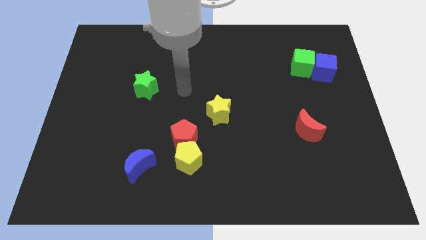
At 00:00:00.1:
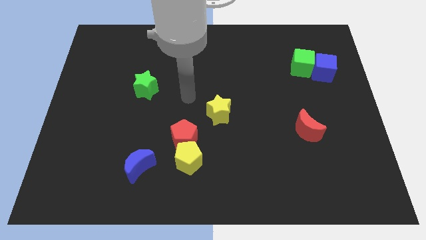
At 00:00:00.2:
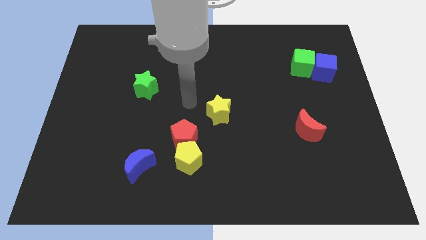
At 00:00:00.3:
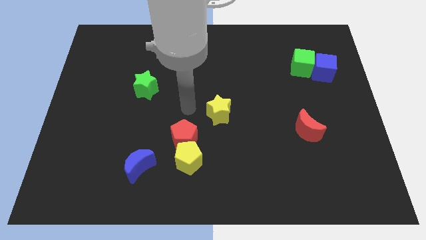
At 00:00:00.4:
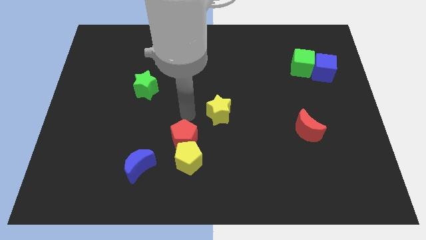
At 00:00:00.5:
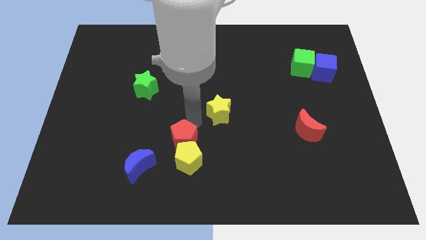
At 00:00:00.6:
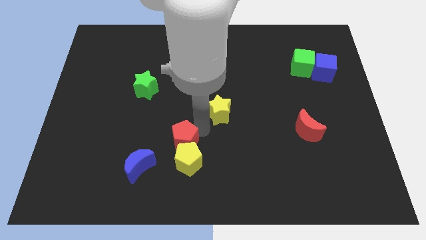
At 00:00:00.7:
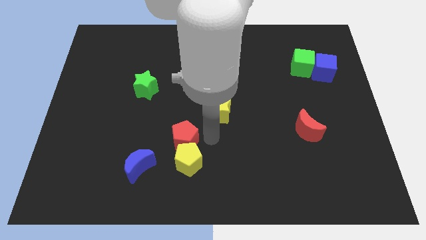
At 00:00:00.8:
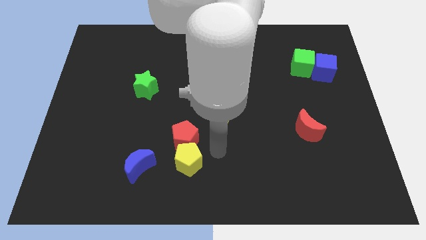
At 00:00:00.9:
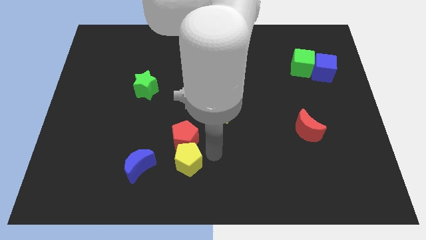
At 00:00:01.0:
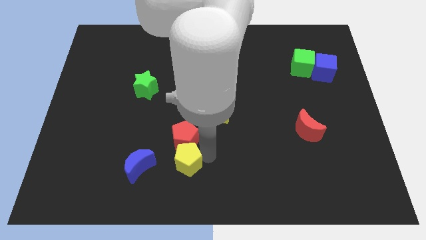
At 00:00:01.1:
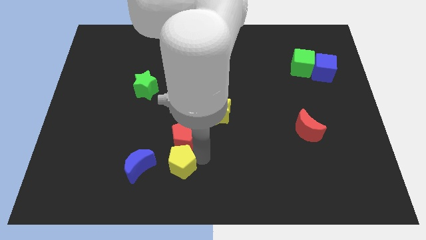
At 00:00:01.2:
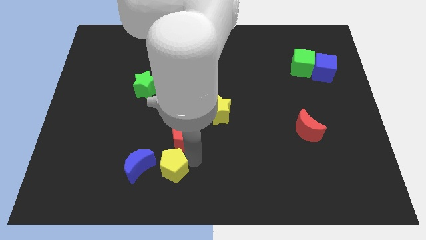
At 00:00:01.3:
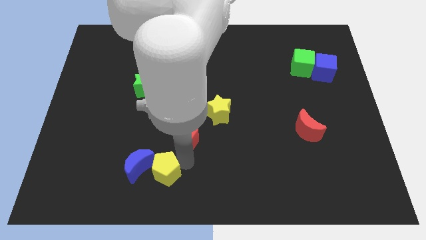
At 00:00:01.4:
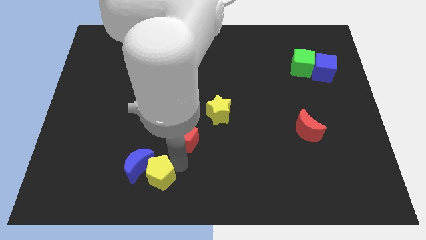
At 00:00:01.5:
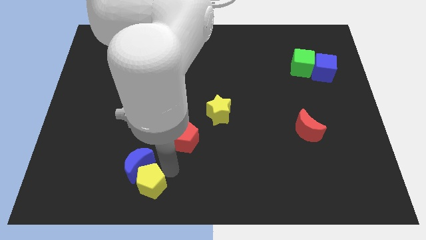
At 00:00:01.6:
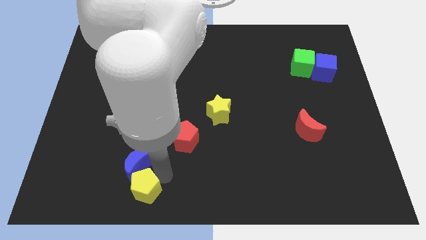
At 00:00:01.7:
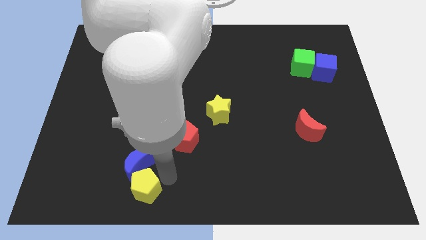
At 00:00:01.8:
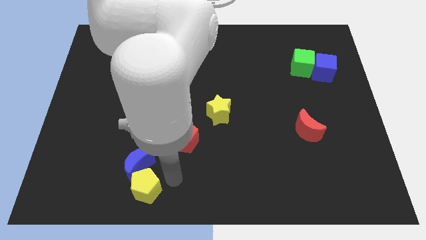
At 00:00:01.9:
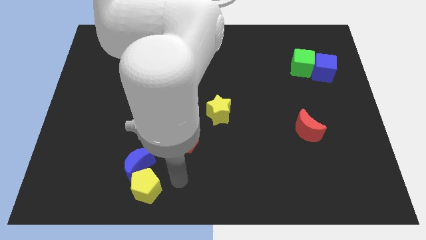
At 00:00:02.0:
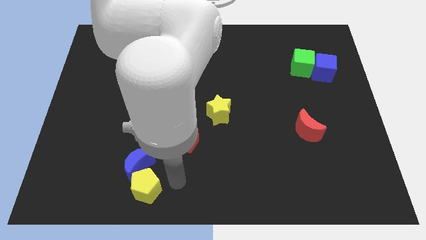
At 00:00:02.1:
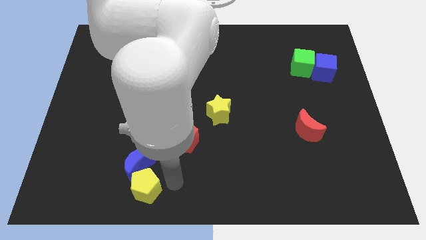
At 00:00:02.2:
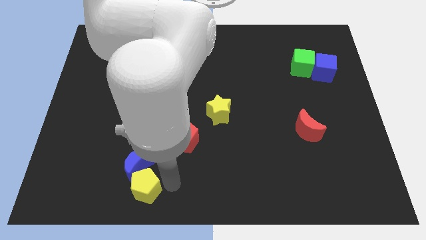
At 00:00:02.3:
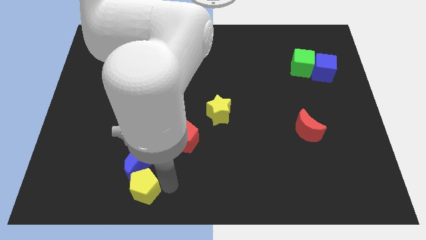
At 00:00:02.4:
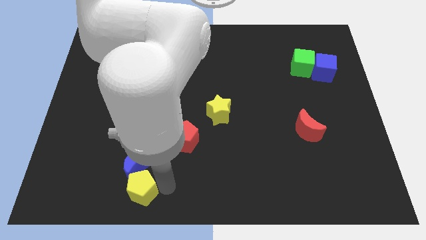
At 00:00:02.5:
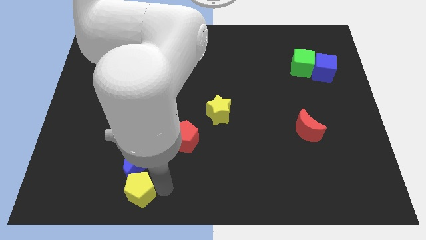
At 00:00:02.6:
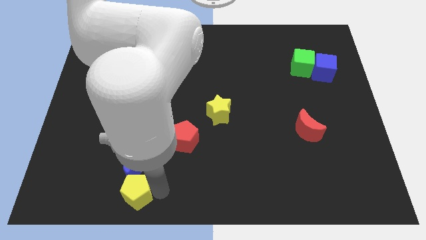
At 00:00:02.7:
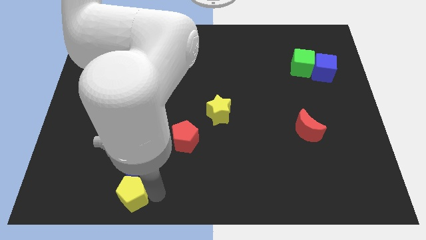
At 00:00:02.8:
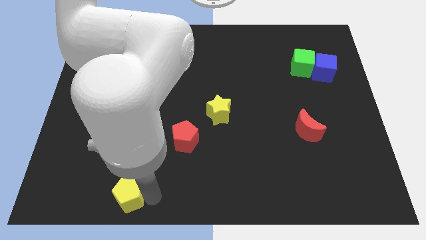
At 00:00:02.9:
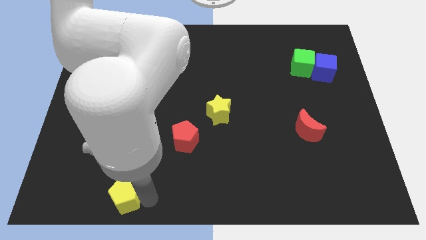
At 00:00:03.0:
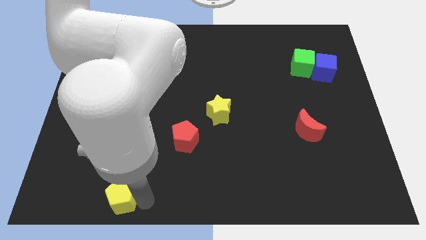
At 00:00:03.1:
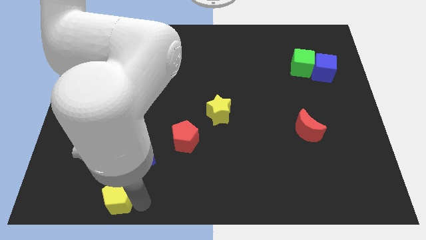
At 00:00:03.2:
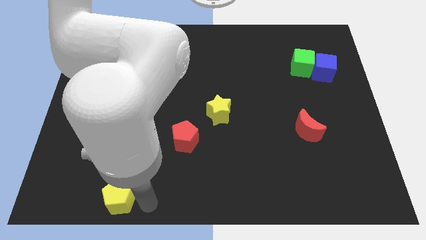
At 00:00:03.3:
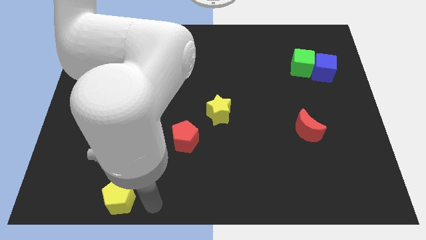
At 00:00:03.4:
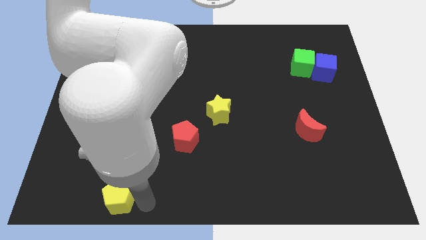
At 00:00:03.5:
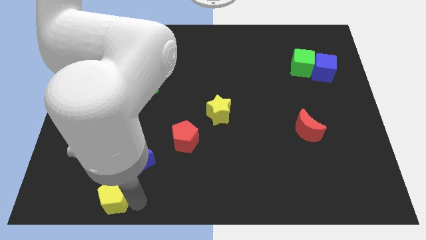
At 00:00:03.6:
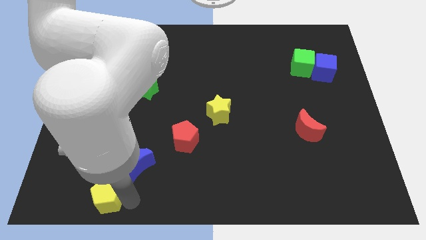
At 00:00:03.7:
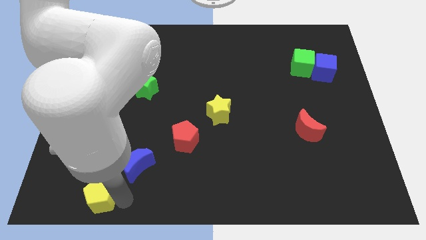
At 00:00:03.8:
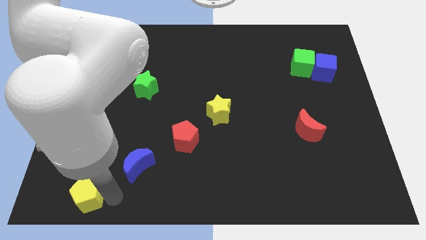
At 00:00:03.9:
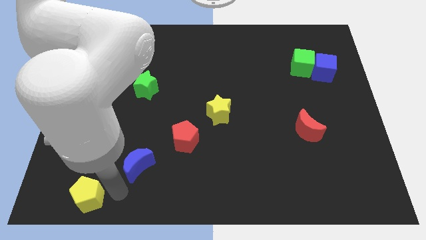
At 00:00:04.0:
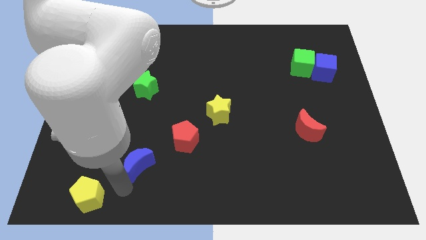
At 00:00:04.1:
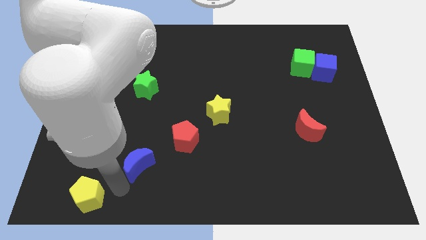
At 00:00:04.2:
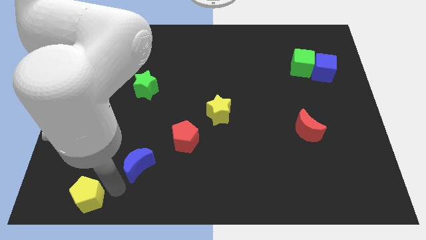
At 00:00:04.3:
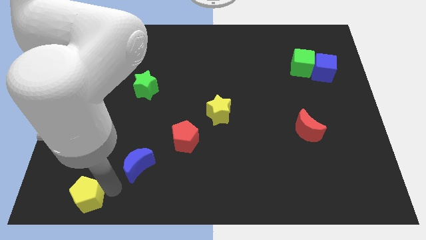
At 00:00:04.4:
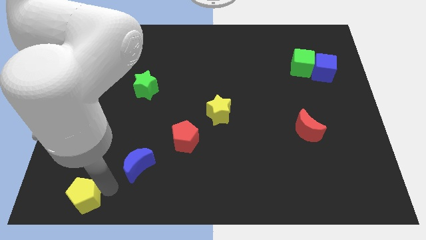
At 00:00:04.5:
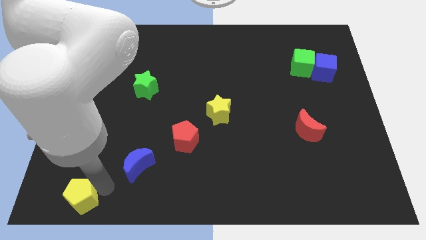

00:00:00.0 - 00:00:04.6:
push the yellow pentagon to the bottom left

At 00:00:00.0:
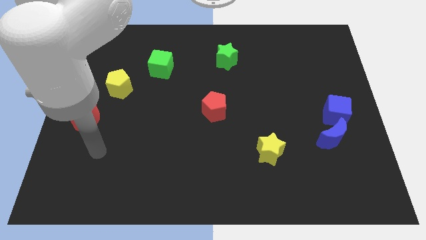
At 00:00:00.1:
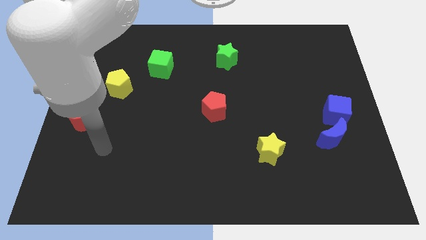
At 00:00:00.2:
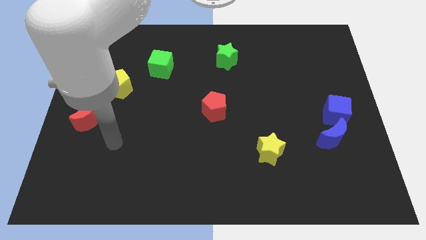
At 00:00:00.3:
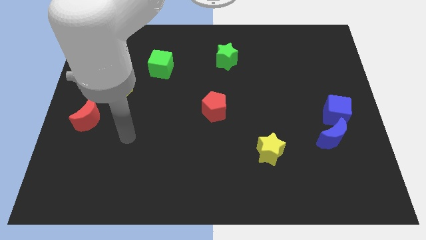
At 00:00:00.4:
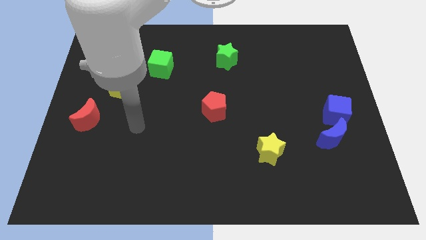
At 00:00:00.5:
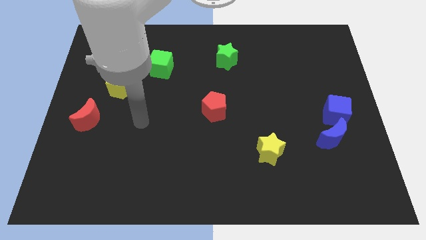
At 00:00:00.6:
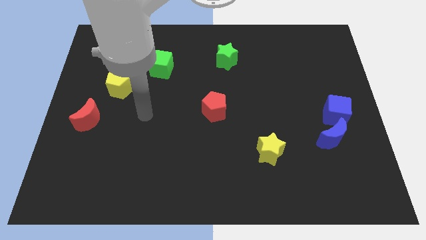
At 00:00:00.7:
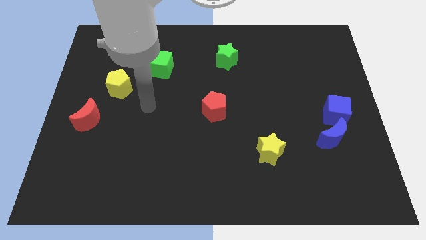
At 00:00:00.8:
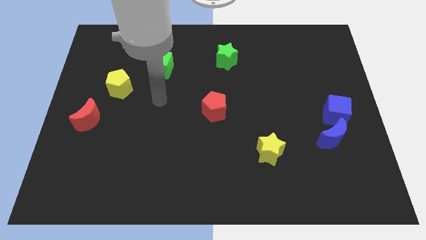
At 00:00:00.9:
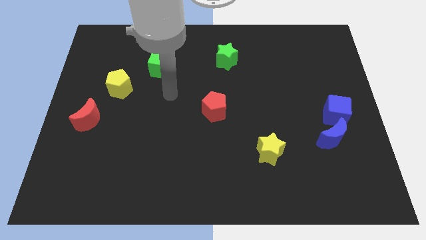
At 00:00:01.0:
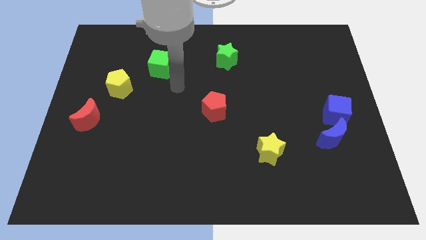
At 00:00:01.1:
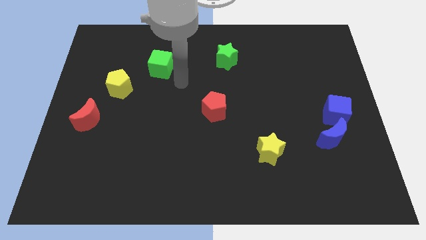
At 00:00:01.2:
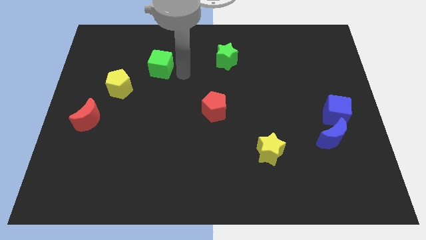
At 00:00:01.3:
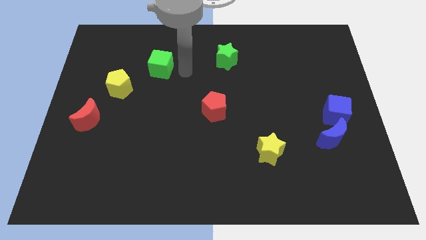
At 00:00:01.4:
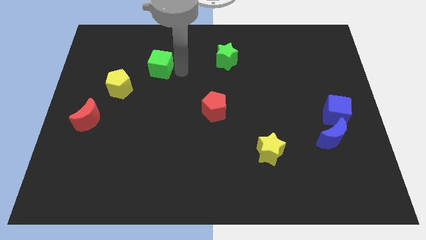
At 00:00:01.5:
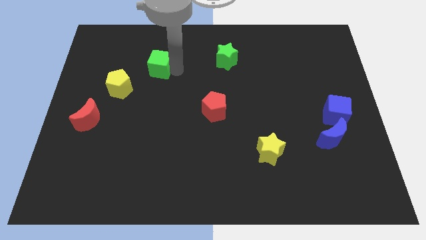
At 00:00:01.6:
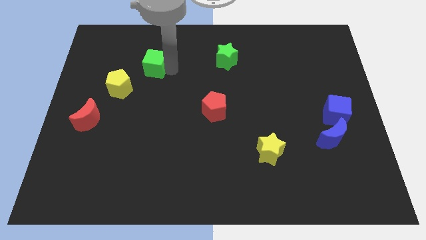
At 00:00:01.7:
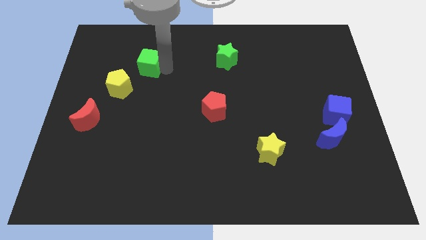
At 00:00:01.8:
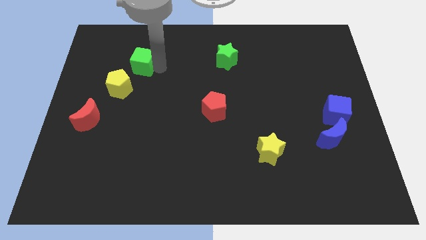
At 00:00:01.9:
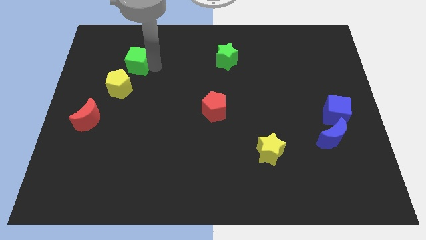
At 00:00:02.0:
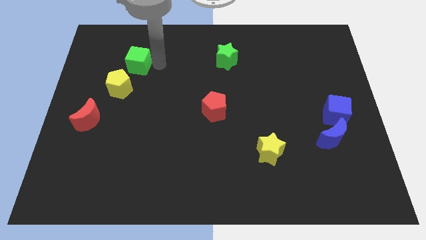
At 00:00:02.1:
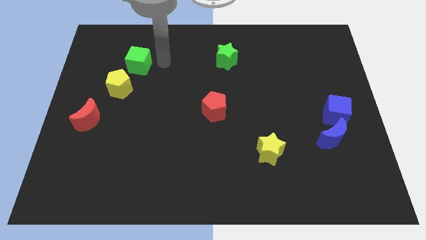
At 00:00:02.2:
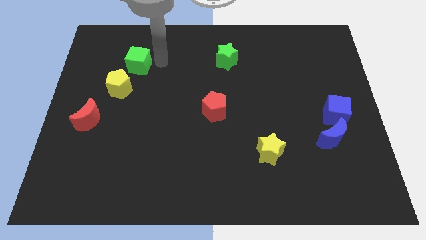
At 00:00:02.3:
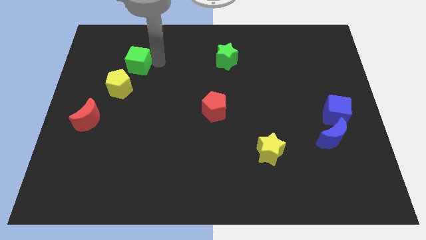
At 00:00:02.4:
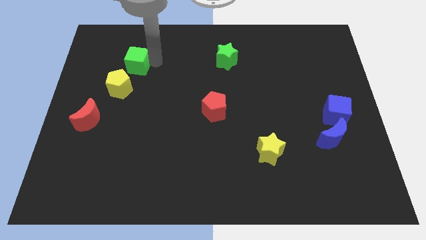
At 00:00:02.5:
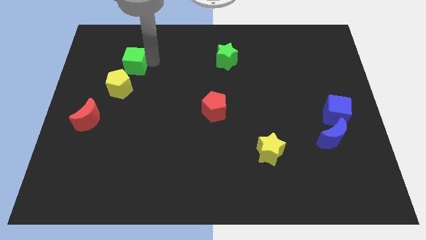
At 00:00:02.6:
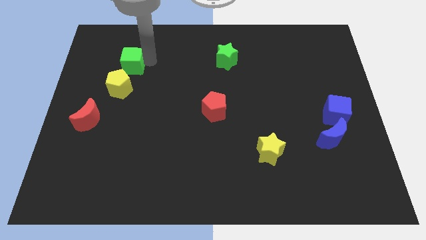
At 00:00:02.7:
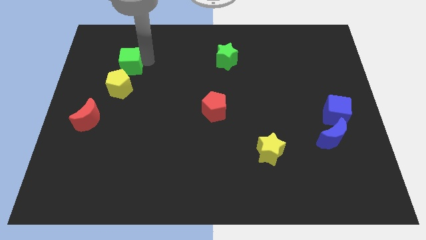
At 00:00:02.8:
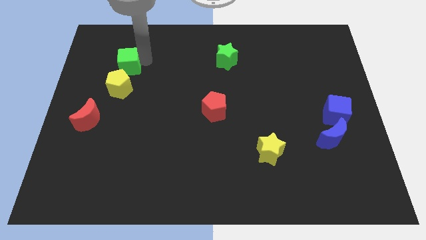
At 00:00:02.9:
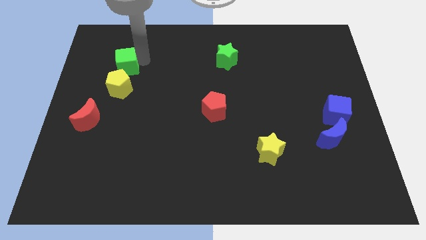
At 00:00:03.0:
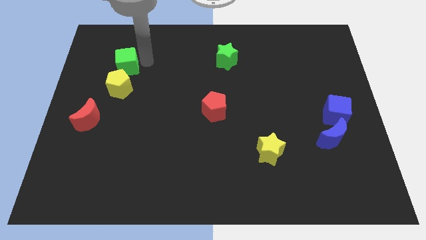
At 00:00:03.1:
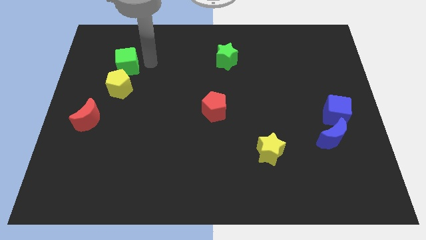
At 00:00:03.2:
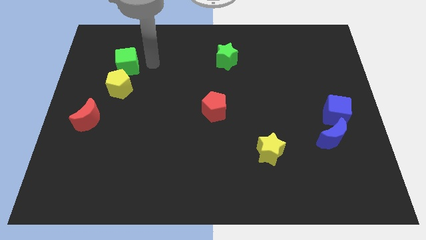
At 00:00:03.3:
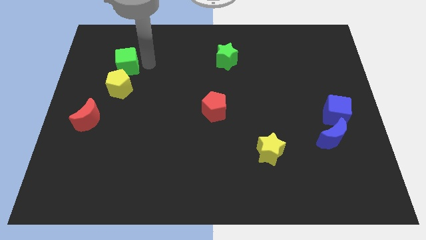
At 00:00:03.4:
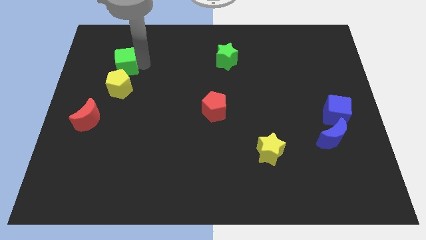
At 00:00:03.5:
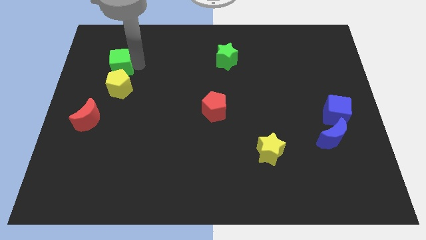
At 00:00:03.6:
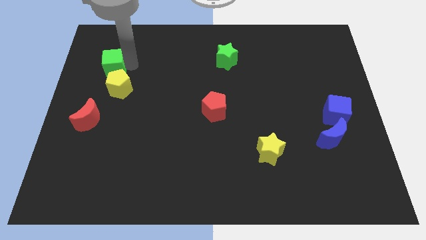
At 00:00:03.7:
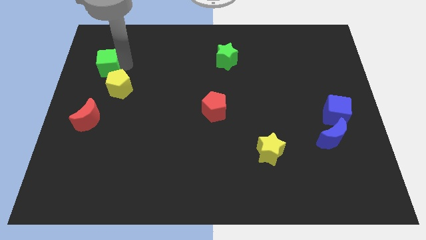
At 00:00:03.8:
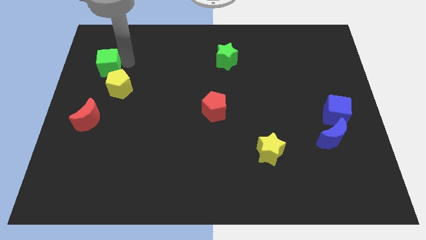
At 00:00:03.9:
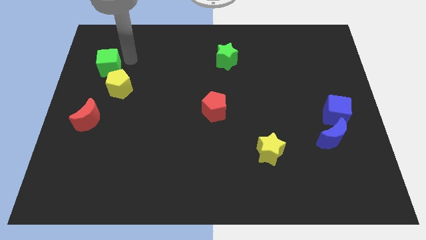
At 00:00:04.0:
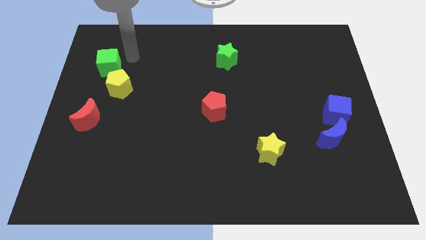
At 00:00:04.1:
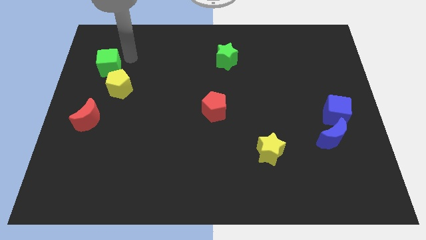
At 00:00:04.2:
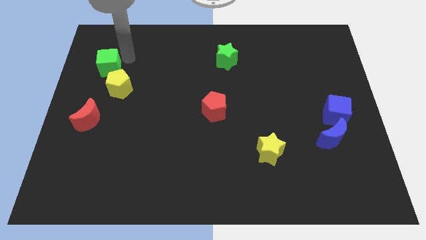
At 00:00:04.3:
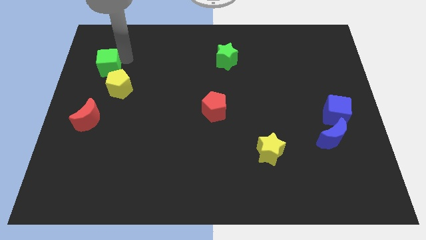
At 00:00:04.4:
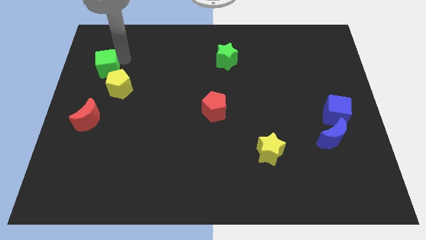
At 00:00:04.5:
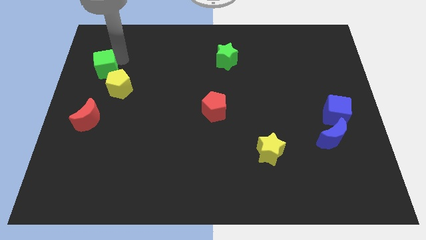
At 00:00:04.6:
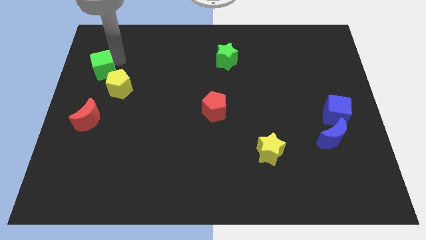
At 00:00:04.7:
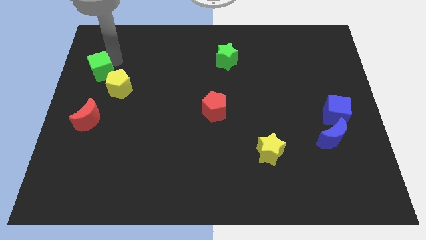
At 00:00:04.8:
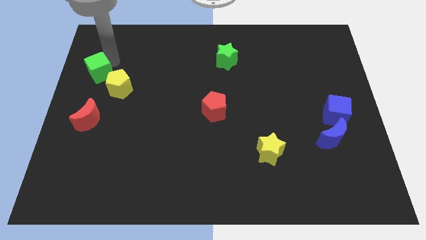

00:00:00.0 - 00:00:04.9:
slide the green cube to the left side of the board
